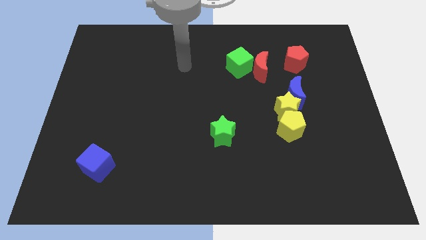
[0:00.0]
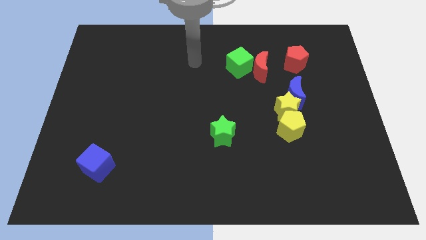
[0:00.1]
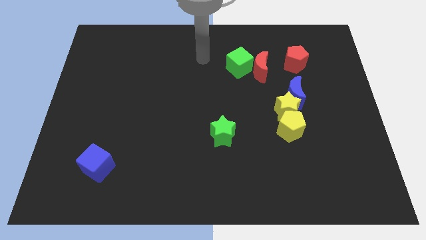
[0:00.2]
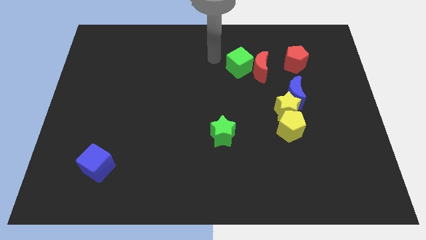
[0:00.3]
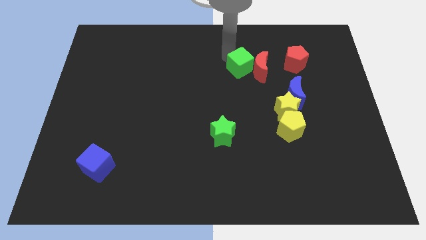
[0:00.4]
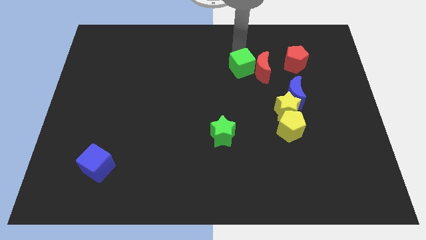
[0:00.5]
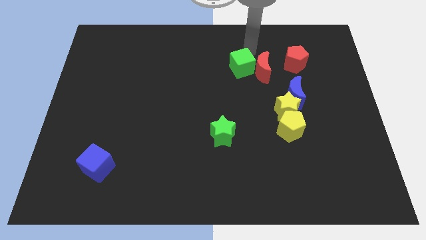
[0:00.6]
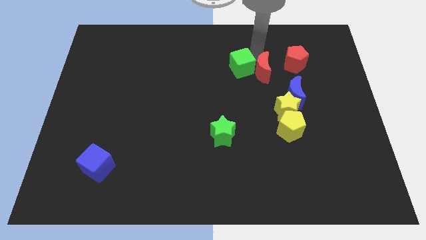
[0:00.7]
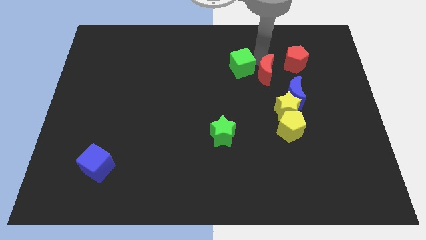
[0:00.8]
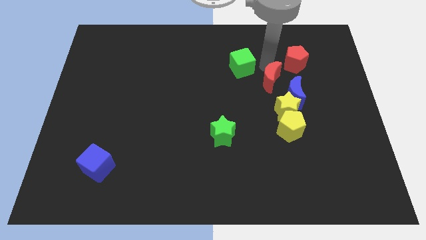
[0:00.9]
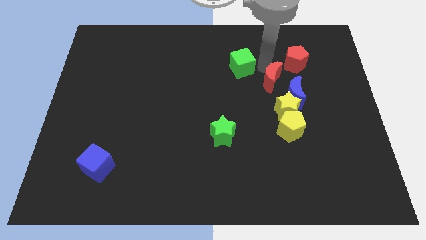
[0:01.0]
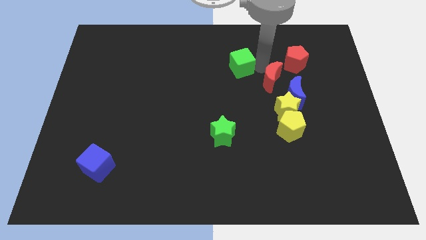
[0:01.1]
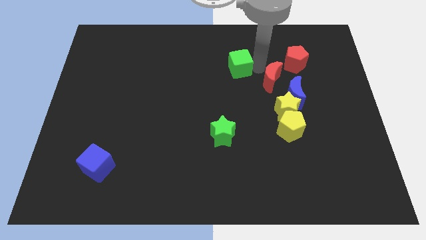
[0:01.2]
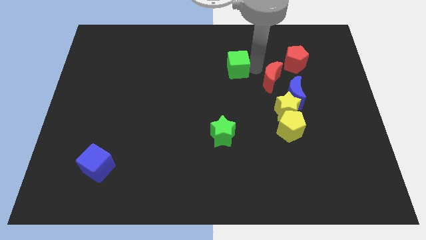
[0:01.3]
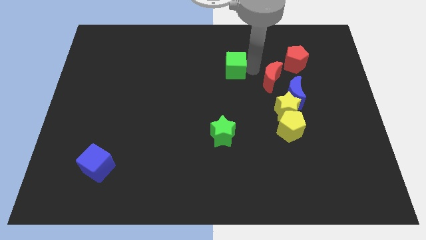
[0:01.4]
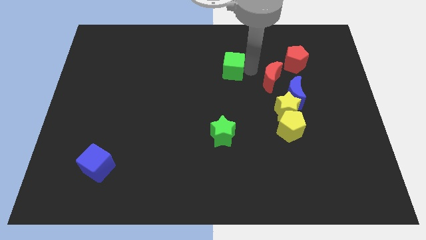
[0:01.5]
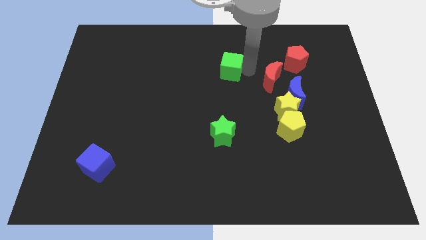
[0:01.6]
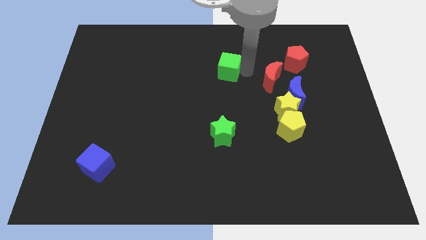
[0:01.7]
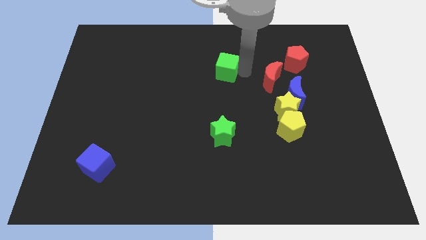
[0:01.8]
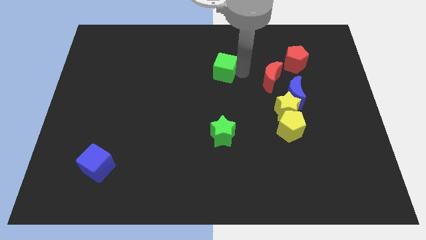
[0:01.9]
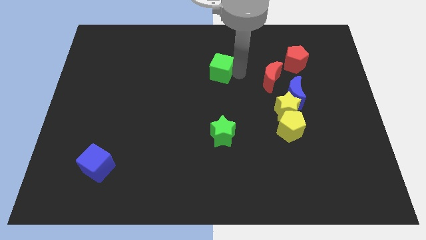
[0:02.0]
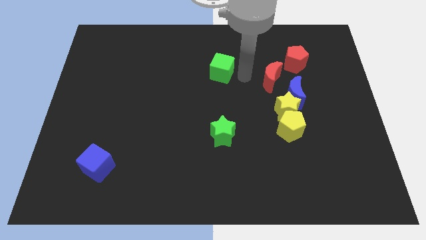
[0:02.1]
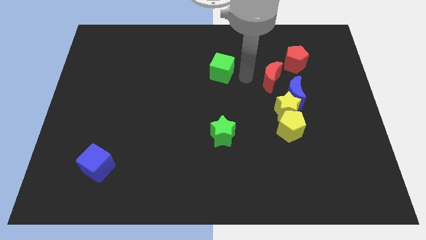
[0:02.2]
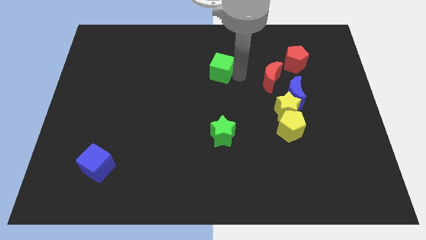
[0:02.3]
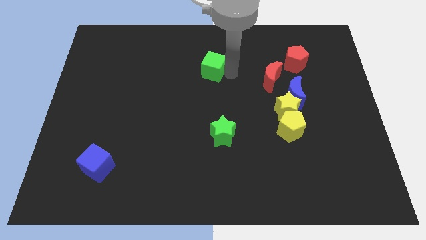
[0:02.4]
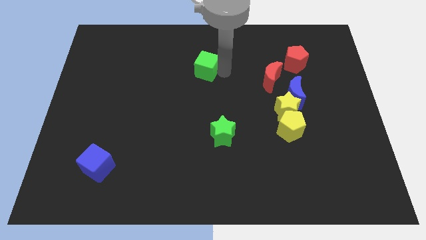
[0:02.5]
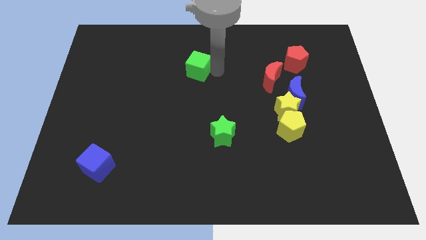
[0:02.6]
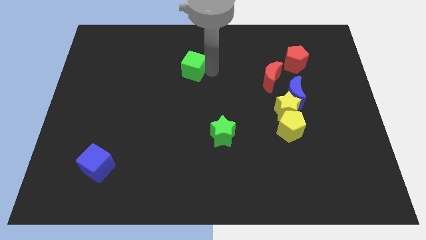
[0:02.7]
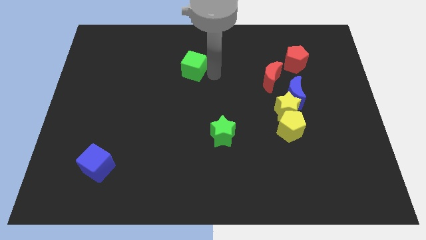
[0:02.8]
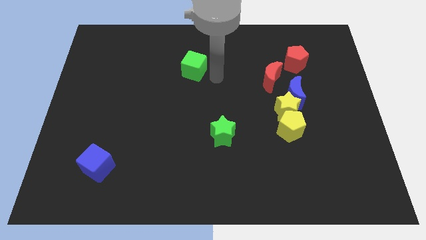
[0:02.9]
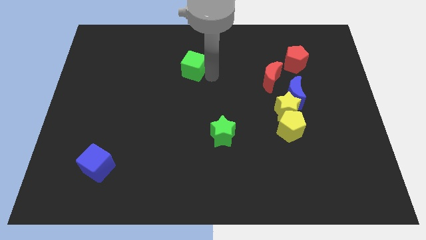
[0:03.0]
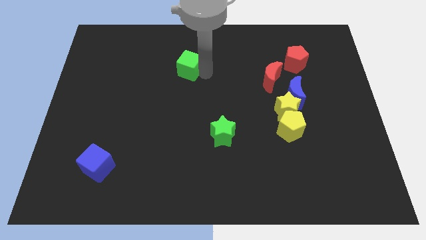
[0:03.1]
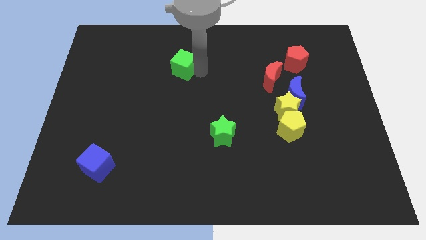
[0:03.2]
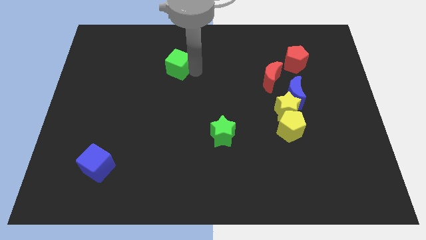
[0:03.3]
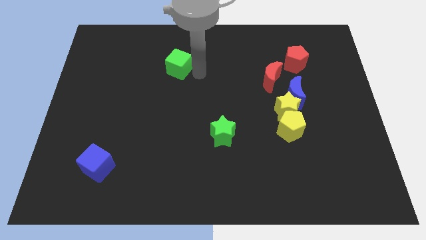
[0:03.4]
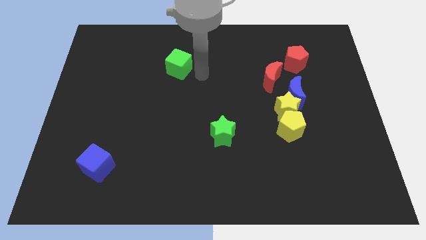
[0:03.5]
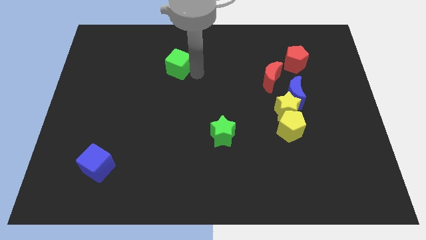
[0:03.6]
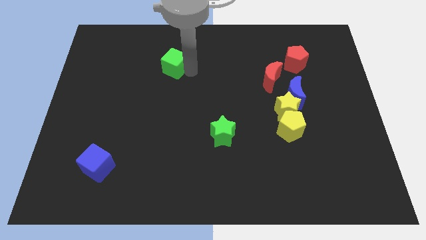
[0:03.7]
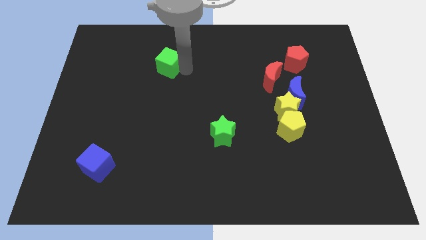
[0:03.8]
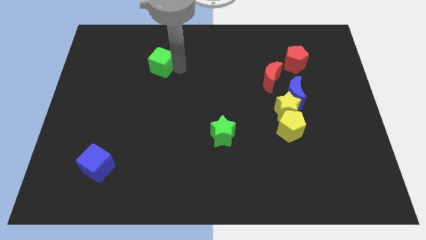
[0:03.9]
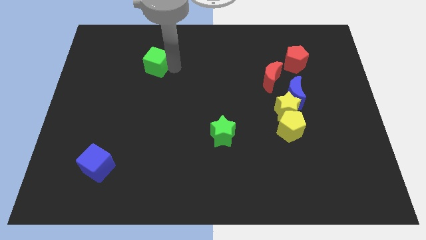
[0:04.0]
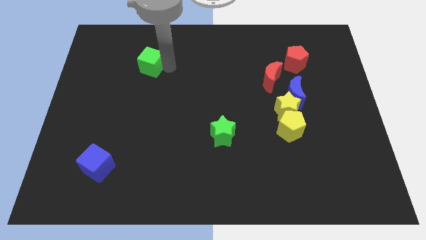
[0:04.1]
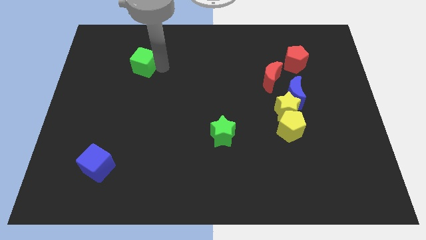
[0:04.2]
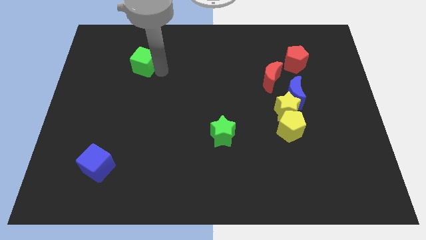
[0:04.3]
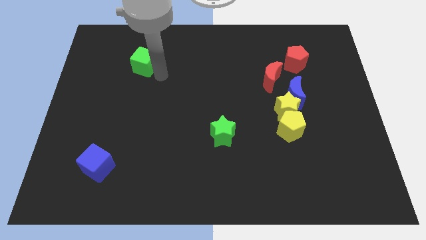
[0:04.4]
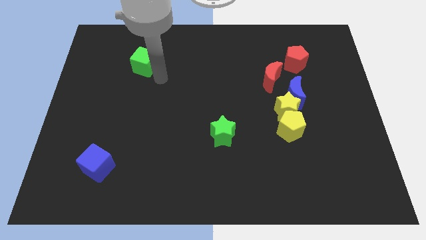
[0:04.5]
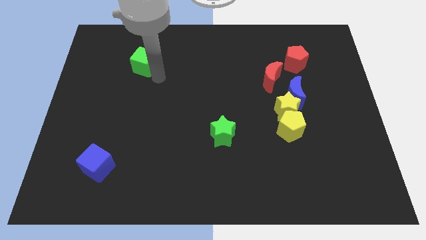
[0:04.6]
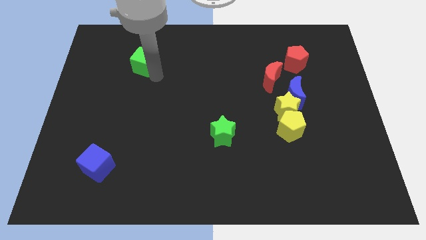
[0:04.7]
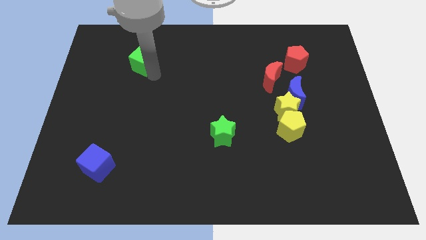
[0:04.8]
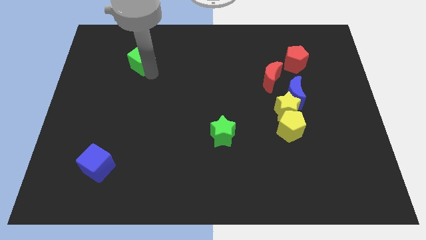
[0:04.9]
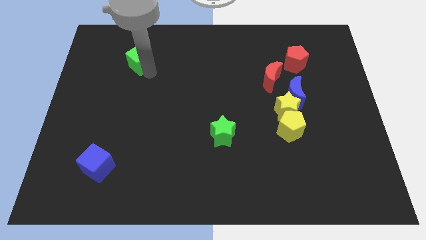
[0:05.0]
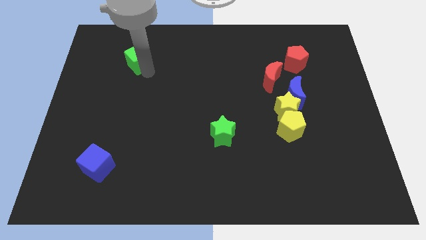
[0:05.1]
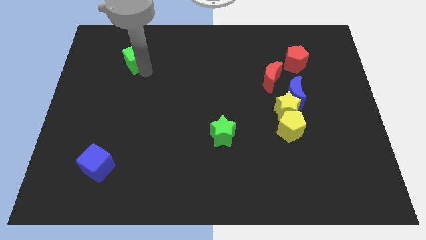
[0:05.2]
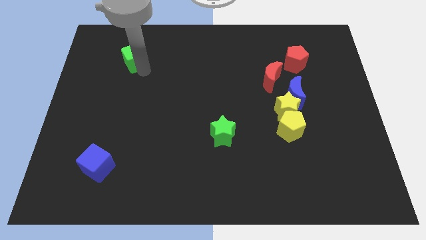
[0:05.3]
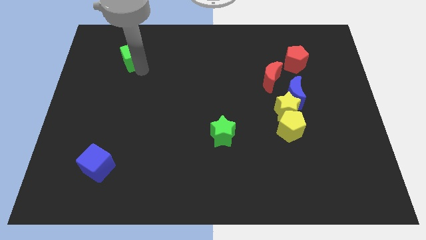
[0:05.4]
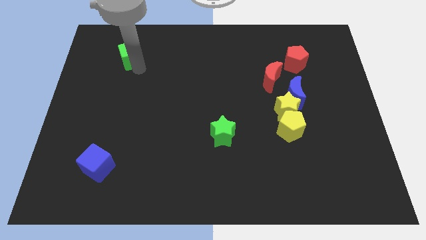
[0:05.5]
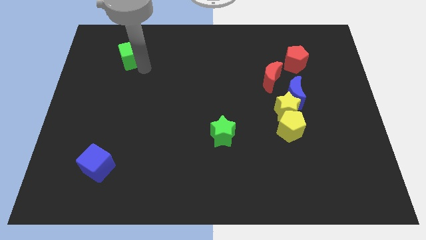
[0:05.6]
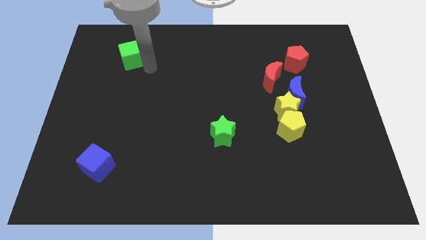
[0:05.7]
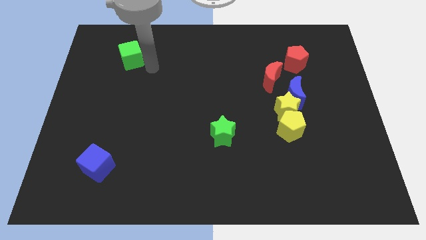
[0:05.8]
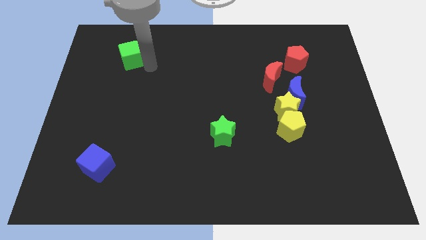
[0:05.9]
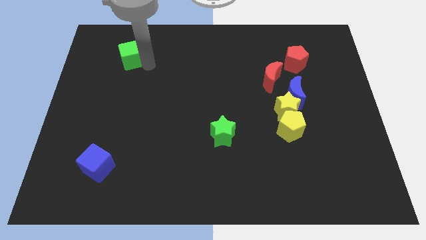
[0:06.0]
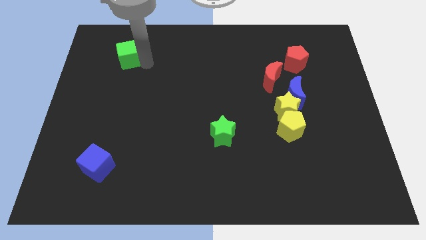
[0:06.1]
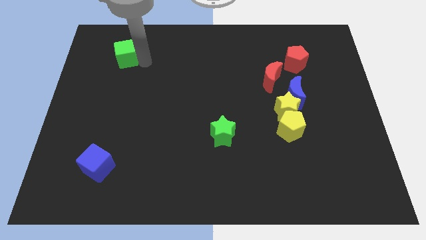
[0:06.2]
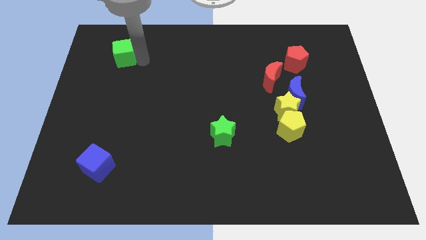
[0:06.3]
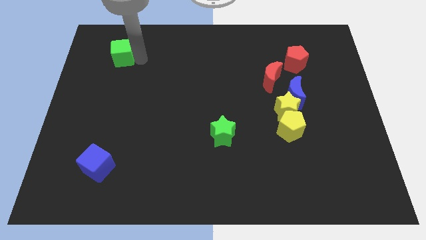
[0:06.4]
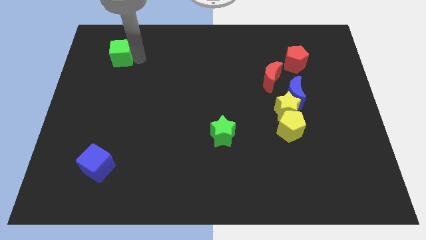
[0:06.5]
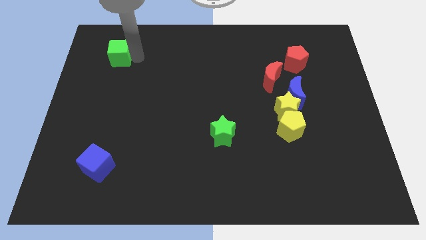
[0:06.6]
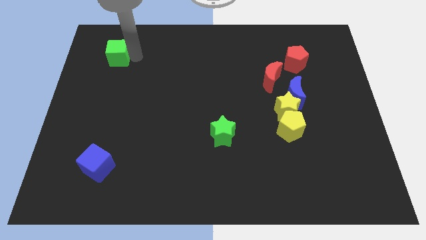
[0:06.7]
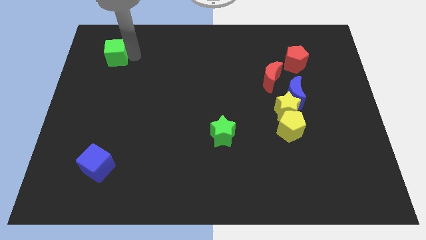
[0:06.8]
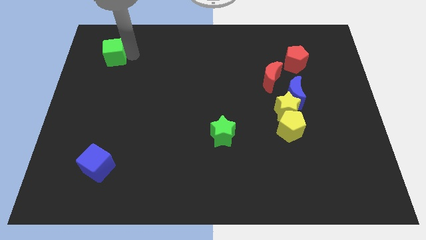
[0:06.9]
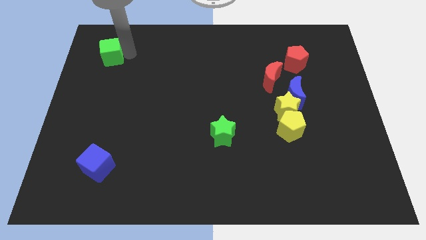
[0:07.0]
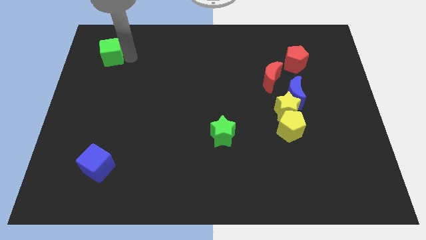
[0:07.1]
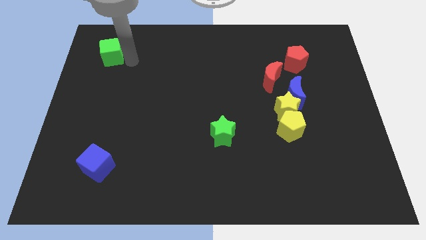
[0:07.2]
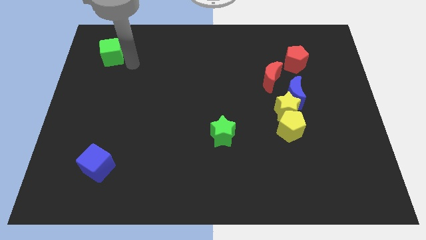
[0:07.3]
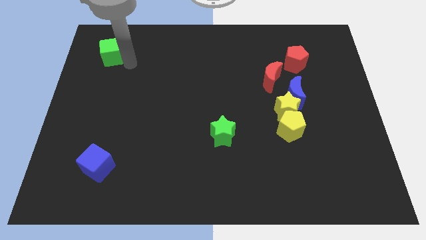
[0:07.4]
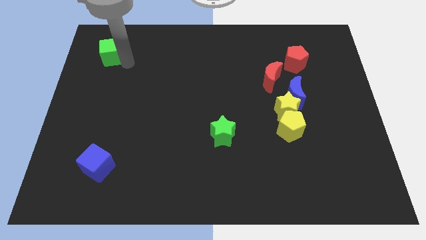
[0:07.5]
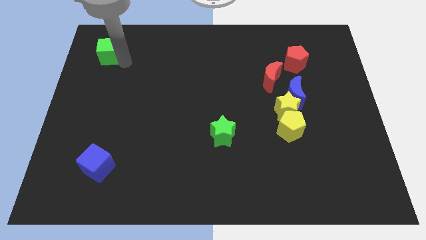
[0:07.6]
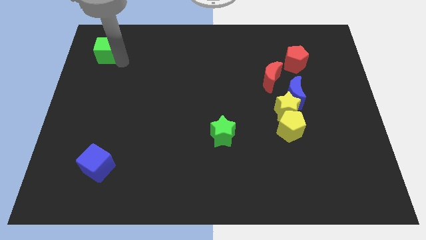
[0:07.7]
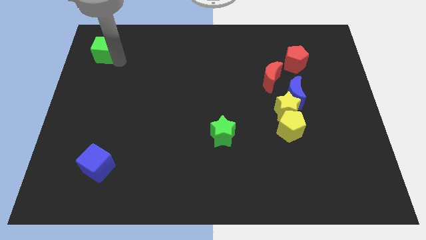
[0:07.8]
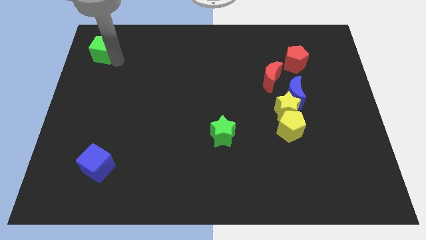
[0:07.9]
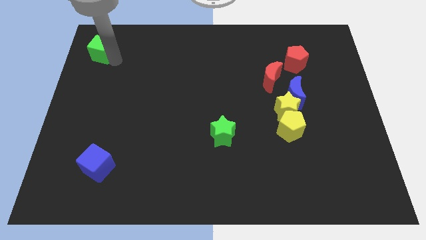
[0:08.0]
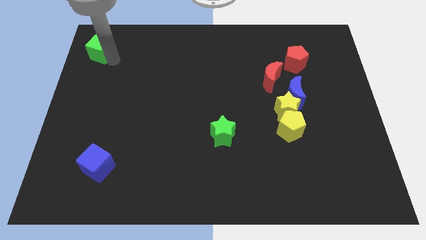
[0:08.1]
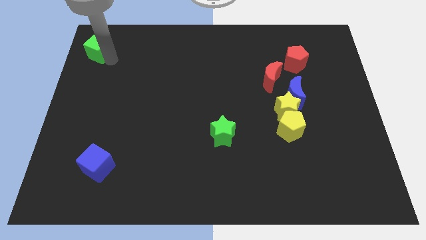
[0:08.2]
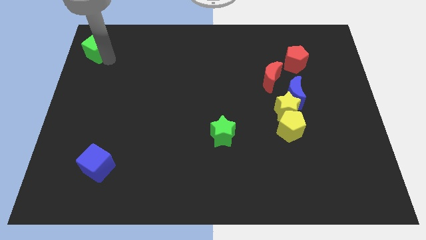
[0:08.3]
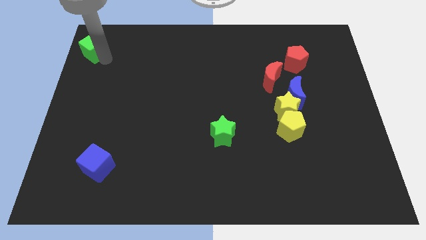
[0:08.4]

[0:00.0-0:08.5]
push the green cube to the top left
